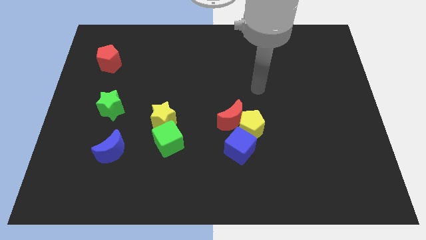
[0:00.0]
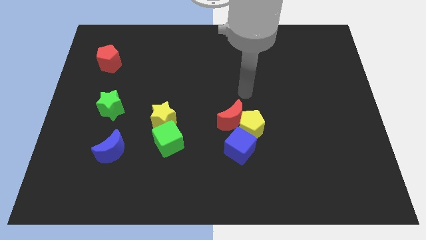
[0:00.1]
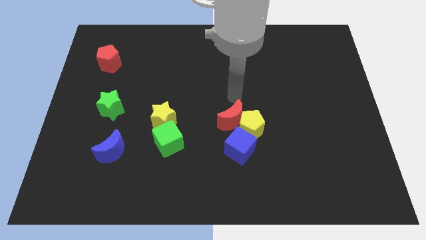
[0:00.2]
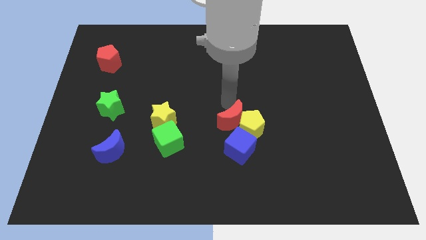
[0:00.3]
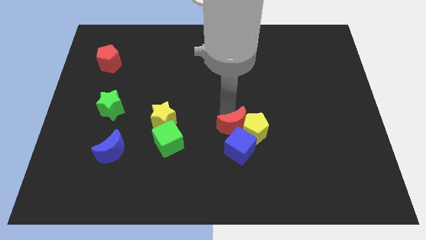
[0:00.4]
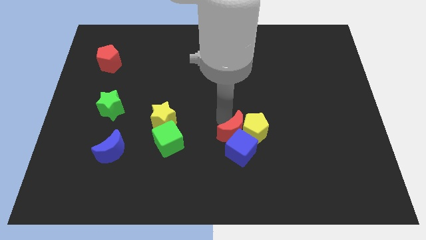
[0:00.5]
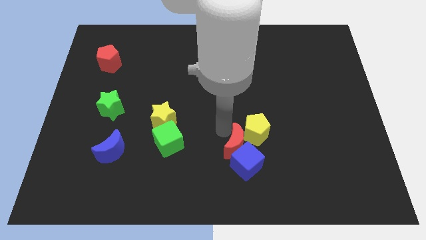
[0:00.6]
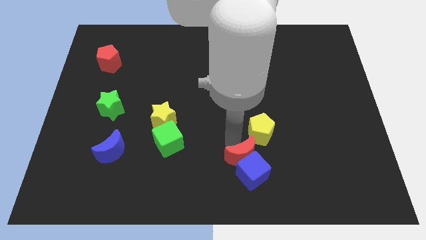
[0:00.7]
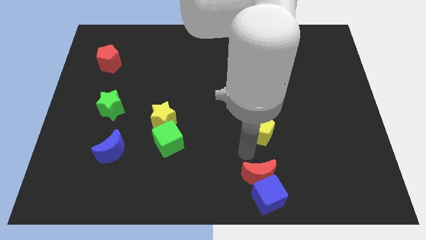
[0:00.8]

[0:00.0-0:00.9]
move the yellow pentagon away from the red moon and blue cube

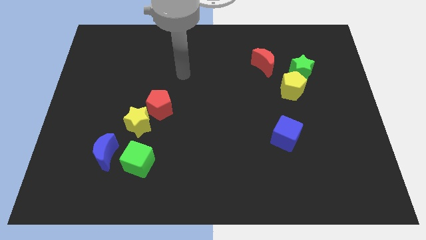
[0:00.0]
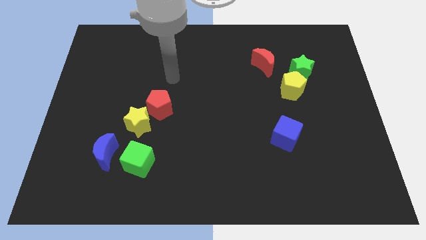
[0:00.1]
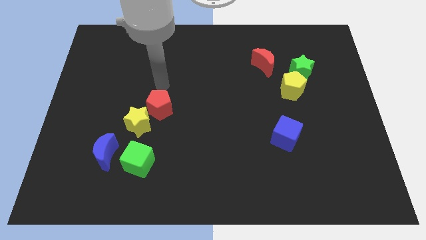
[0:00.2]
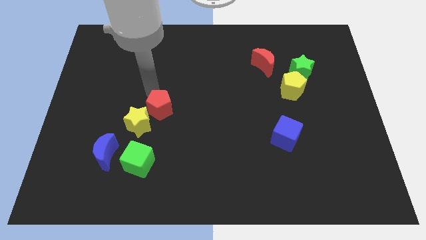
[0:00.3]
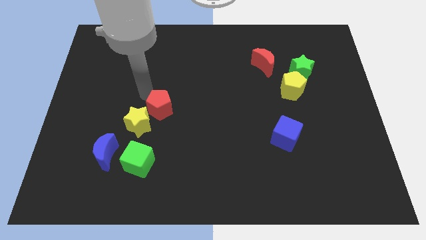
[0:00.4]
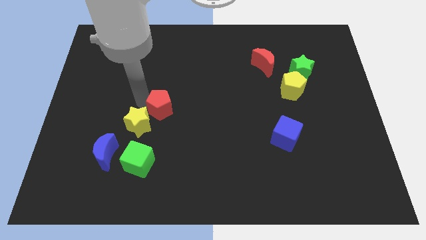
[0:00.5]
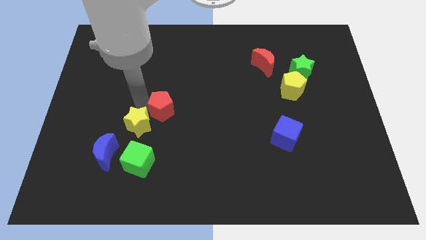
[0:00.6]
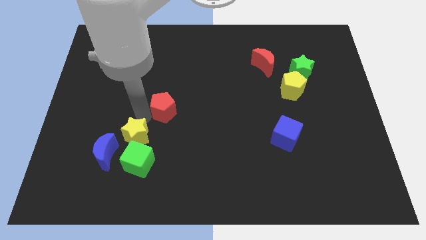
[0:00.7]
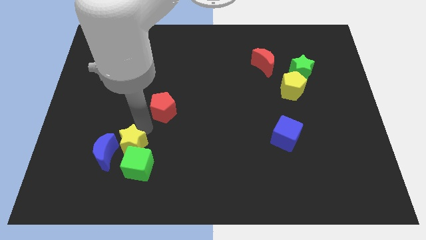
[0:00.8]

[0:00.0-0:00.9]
separate the red pentagon from the yellow star

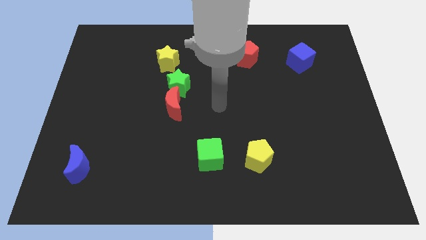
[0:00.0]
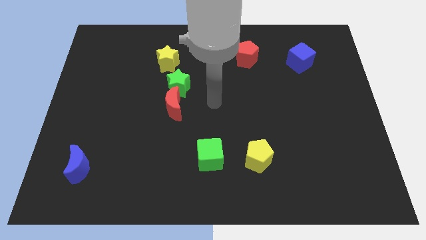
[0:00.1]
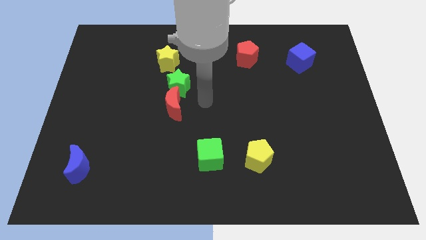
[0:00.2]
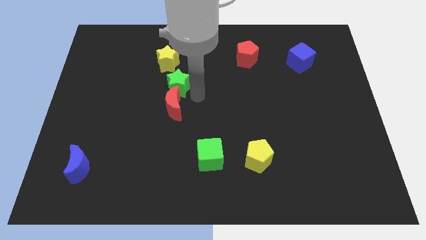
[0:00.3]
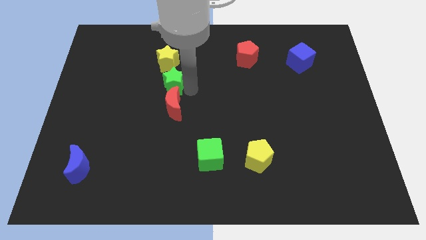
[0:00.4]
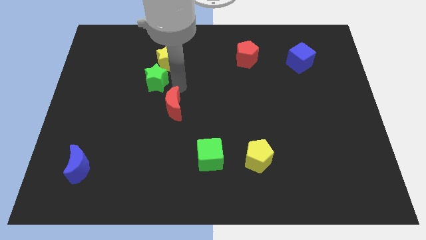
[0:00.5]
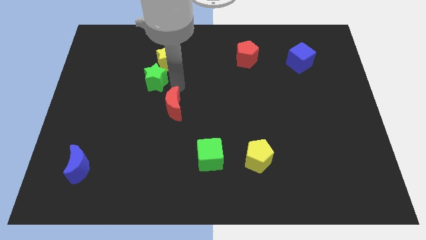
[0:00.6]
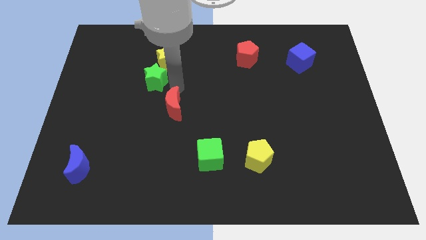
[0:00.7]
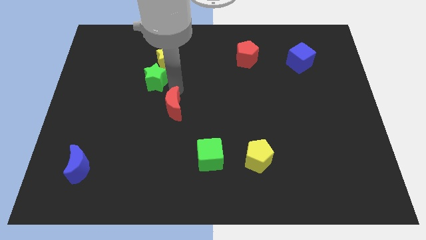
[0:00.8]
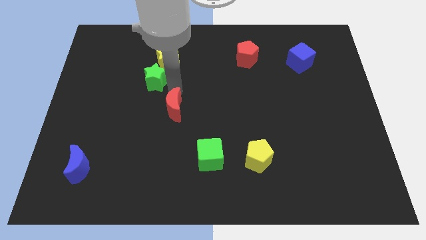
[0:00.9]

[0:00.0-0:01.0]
separate the red moon from the green star

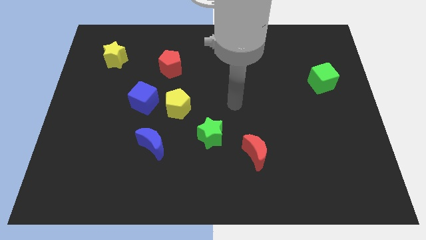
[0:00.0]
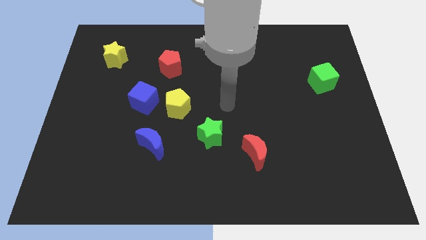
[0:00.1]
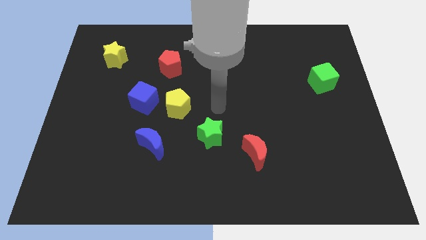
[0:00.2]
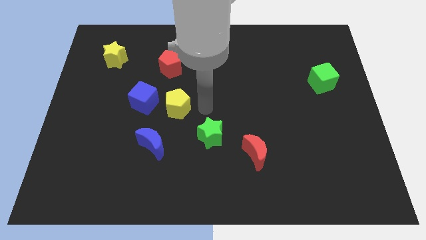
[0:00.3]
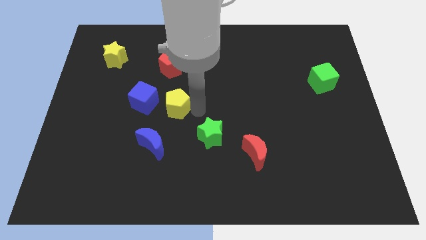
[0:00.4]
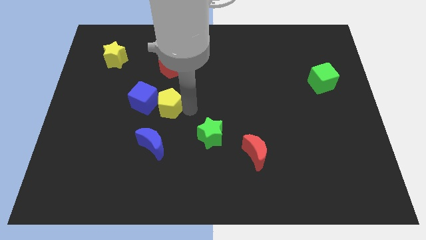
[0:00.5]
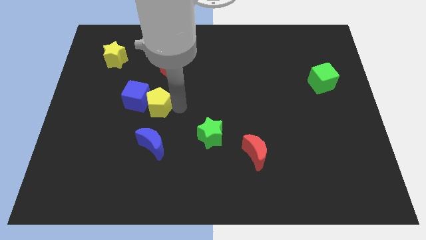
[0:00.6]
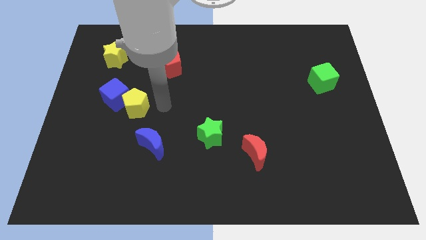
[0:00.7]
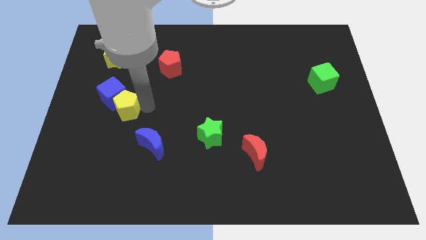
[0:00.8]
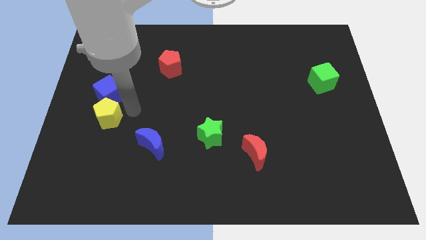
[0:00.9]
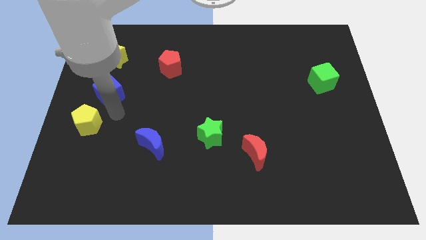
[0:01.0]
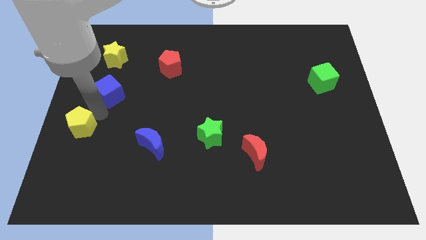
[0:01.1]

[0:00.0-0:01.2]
pull the blue cube apart from the yellow pentagon

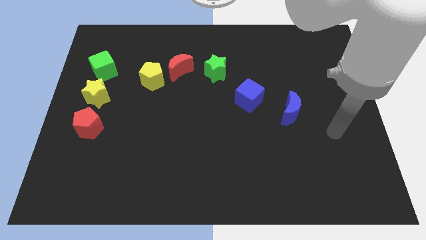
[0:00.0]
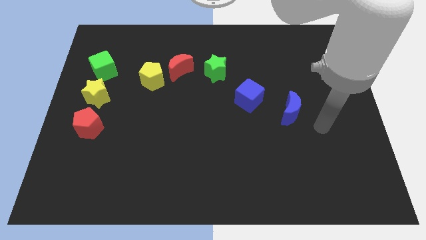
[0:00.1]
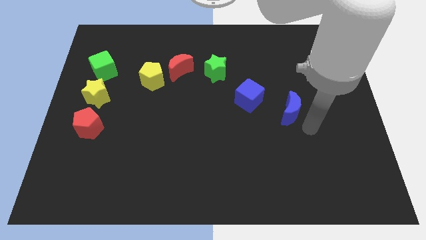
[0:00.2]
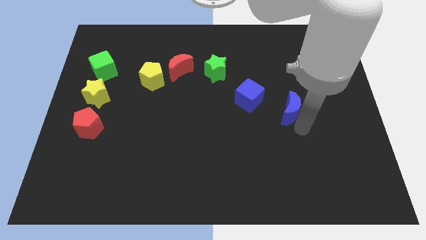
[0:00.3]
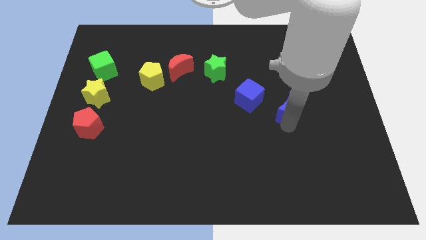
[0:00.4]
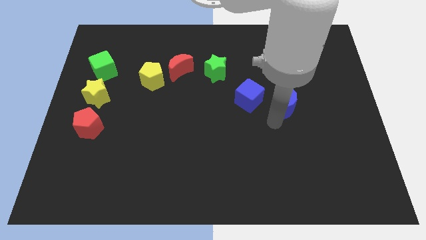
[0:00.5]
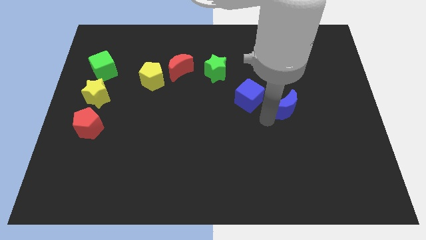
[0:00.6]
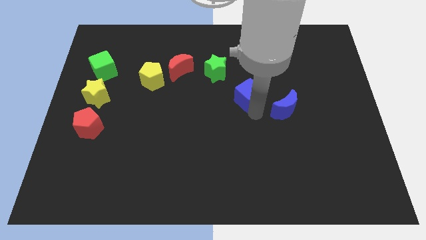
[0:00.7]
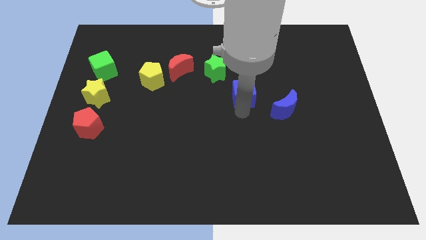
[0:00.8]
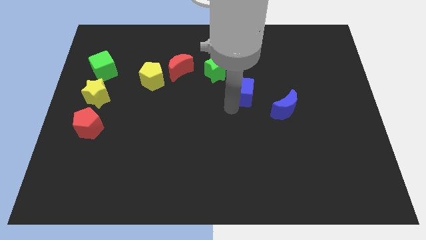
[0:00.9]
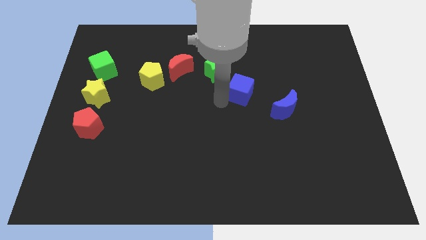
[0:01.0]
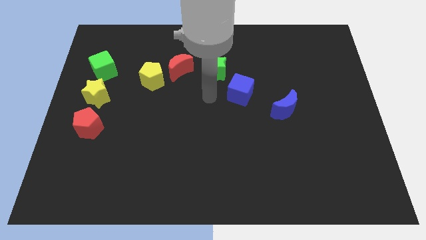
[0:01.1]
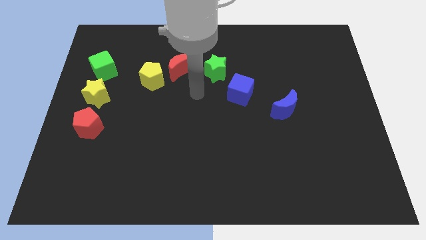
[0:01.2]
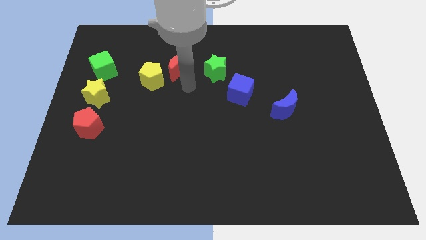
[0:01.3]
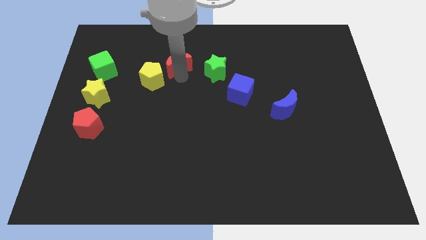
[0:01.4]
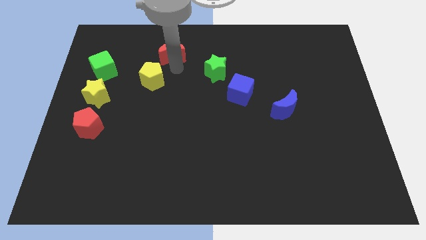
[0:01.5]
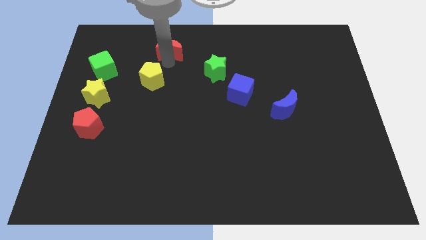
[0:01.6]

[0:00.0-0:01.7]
move the yellow pentagon away from the red moon

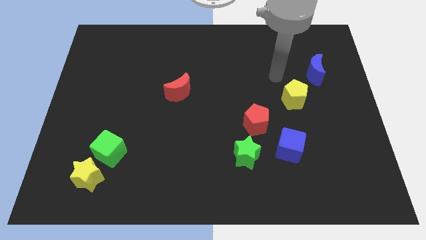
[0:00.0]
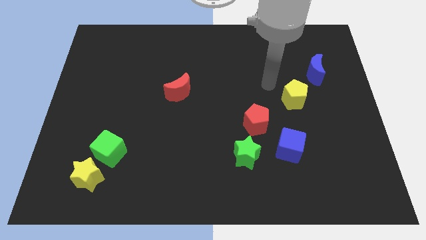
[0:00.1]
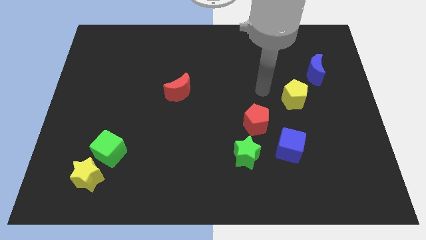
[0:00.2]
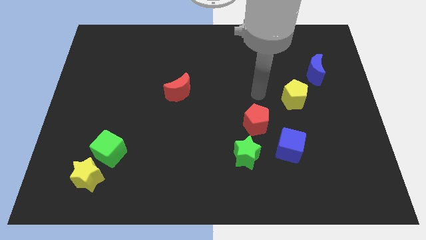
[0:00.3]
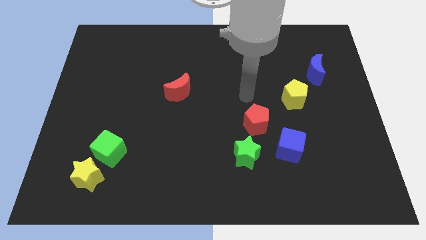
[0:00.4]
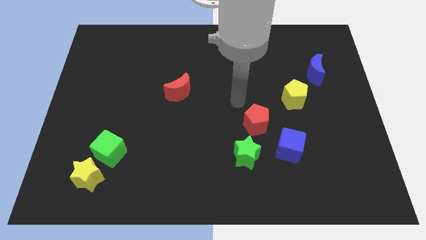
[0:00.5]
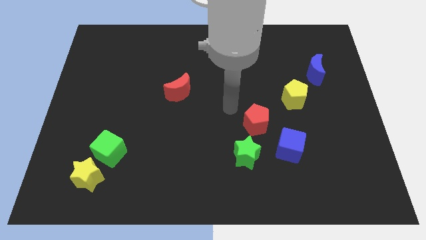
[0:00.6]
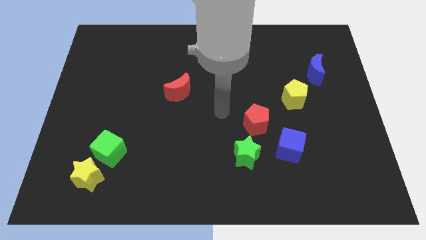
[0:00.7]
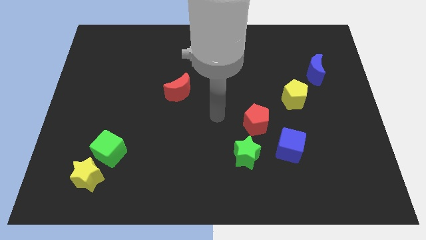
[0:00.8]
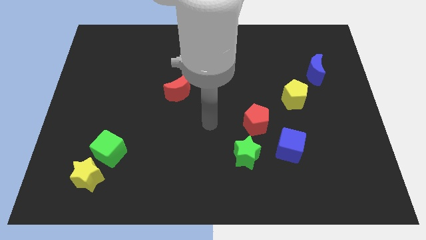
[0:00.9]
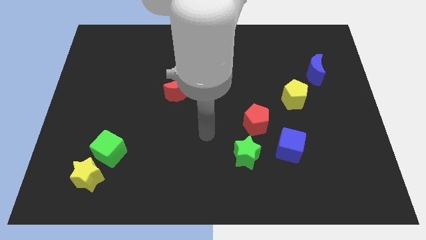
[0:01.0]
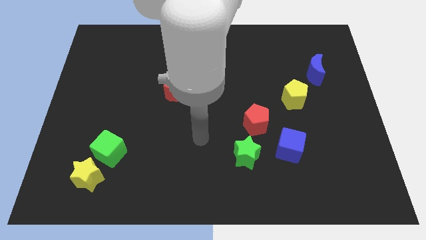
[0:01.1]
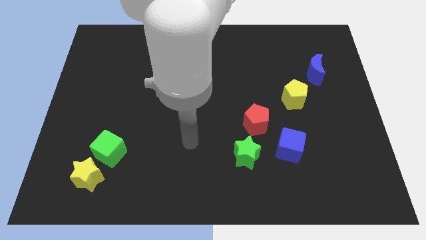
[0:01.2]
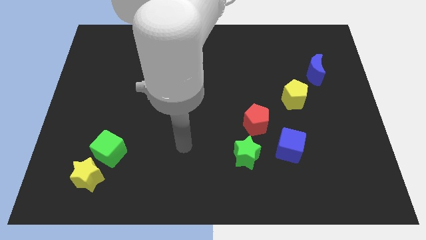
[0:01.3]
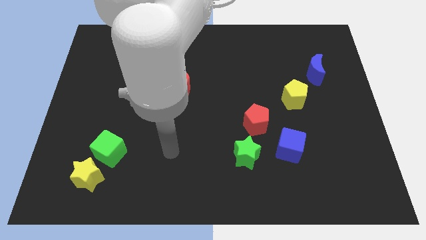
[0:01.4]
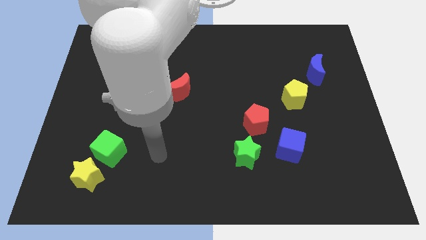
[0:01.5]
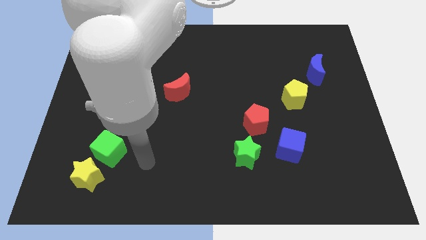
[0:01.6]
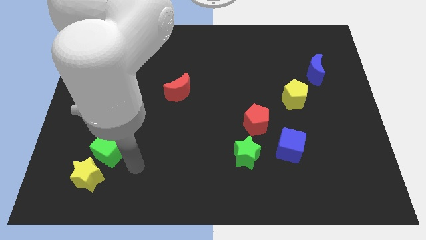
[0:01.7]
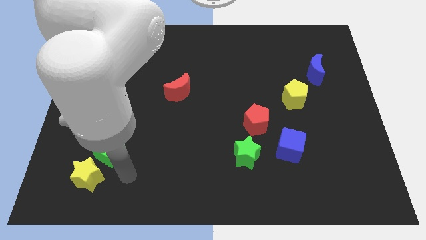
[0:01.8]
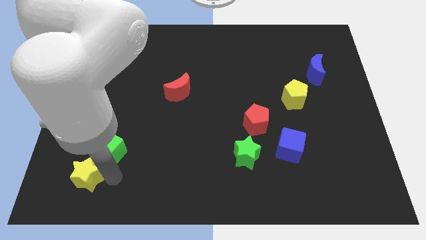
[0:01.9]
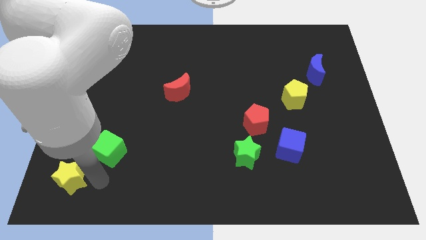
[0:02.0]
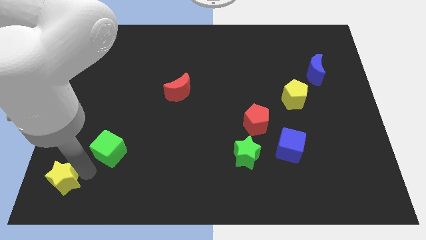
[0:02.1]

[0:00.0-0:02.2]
pull the green cube apart from the yellow star

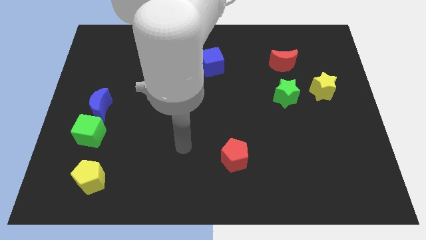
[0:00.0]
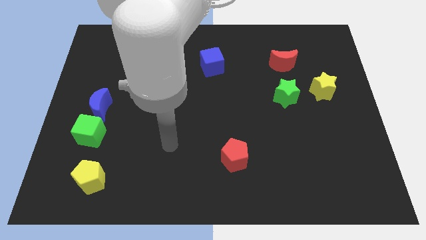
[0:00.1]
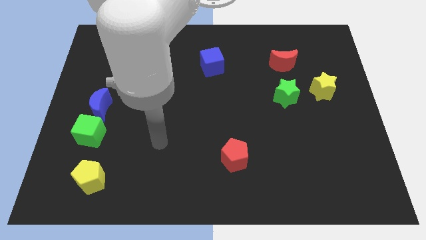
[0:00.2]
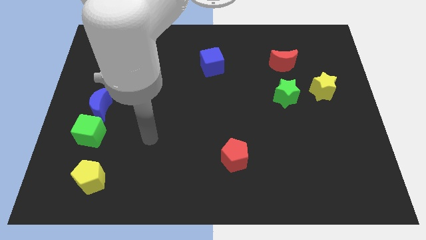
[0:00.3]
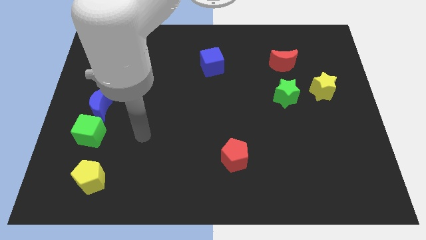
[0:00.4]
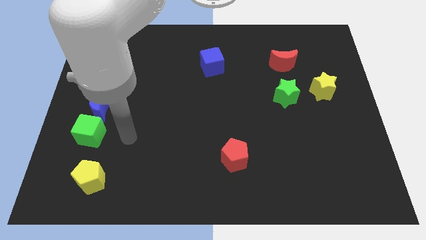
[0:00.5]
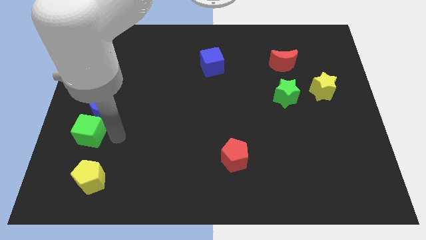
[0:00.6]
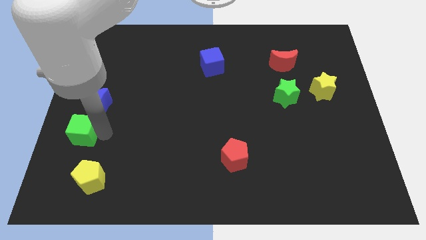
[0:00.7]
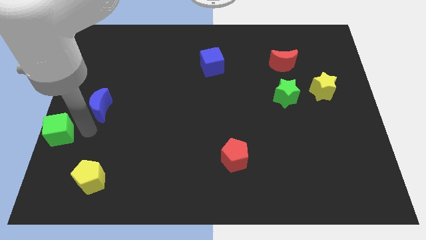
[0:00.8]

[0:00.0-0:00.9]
move the blue moon away from the green cube

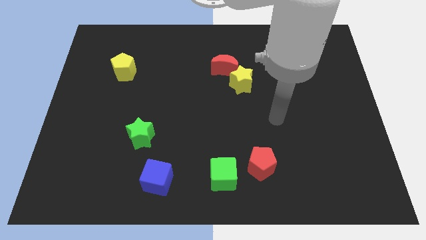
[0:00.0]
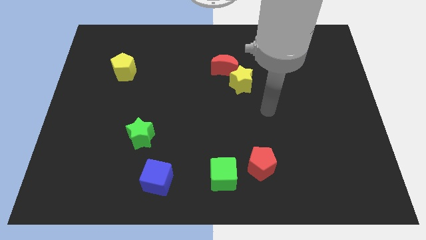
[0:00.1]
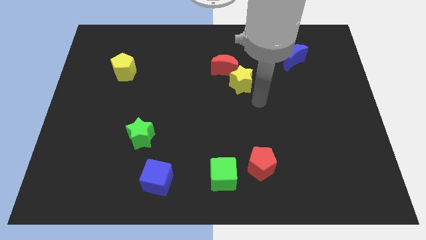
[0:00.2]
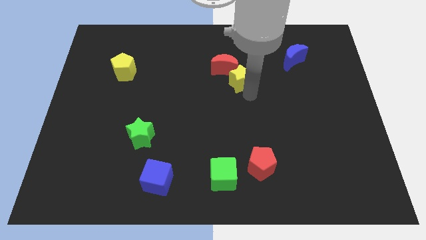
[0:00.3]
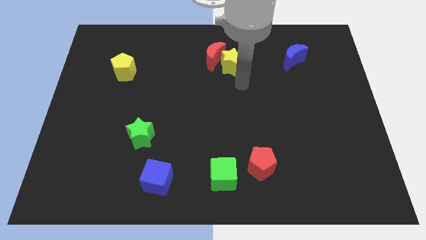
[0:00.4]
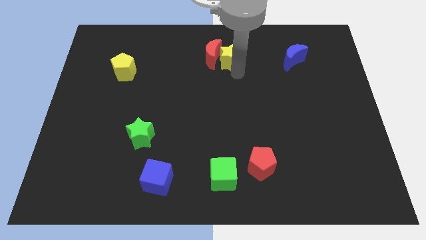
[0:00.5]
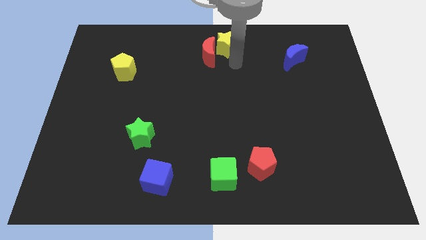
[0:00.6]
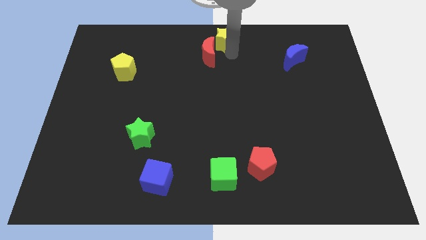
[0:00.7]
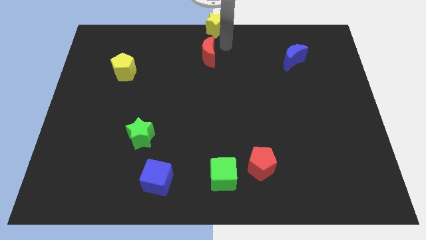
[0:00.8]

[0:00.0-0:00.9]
separate the red moon from the yellow star
